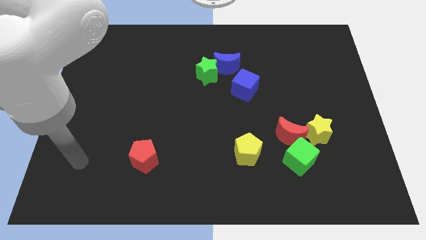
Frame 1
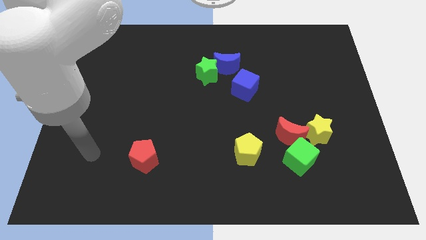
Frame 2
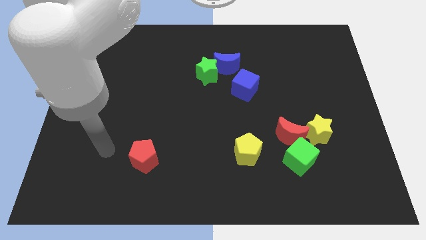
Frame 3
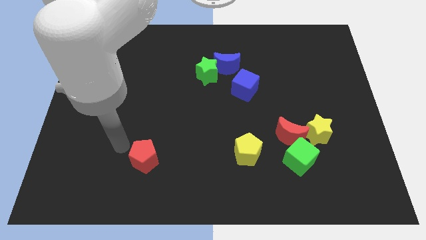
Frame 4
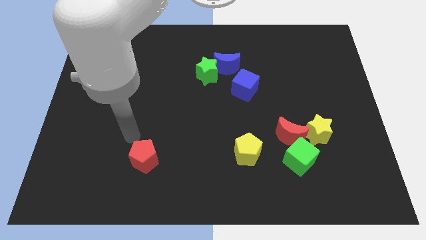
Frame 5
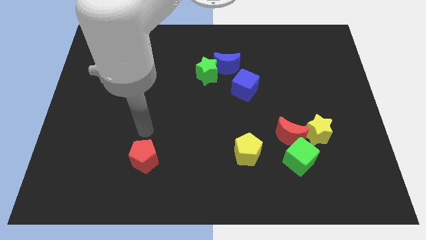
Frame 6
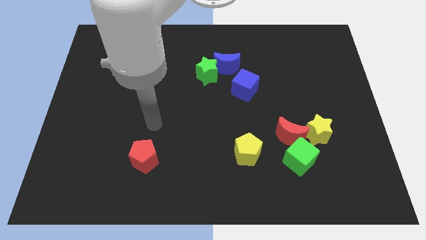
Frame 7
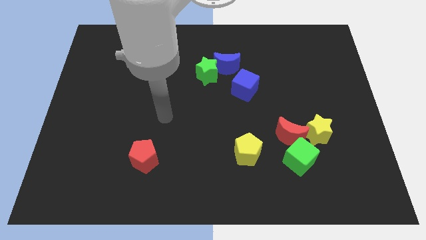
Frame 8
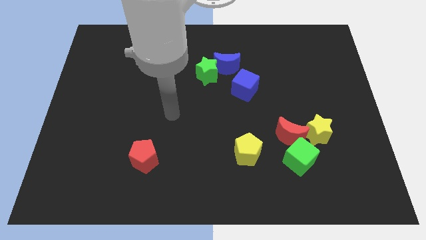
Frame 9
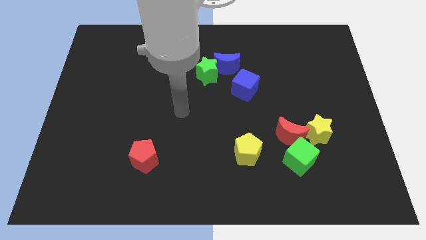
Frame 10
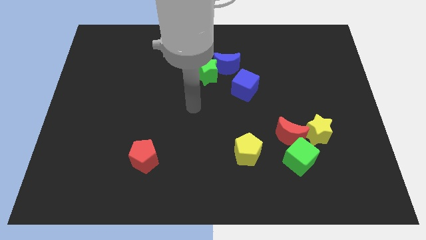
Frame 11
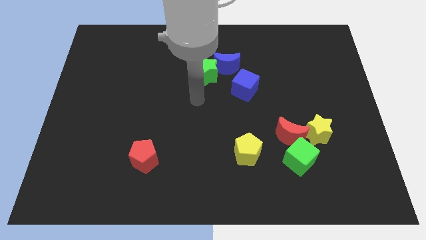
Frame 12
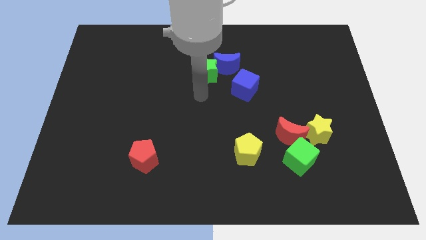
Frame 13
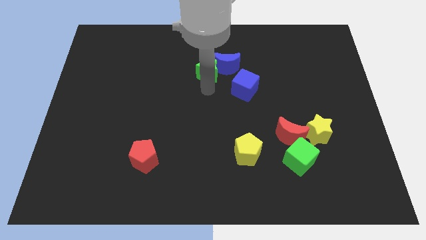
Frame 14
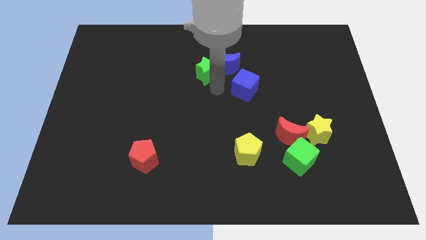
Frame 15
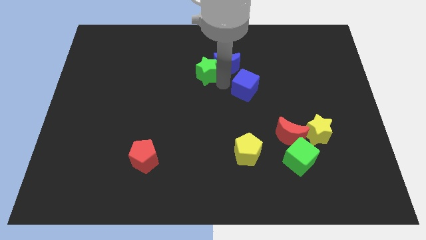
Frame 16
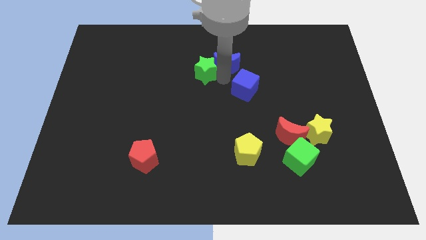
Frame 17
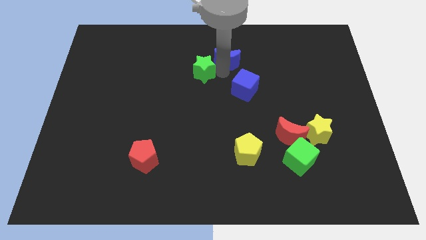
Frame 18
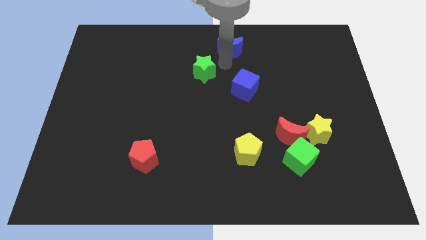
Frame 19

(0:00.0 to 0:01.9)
move the green star away from the blue moon

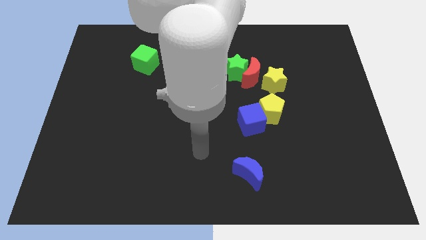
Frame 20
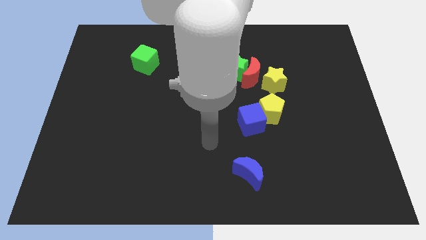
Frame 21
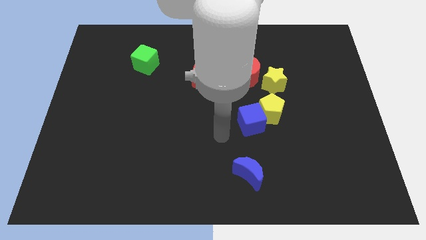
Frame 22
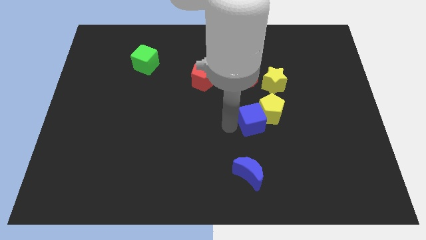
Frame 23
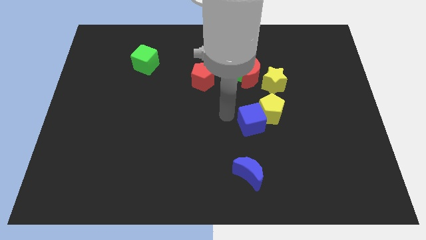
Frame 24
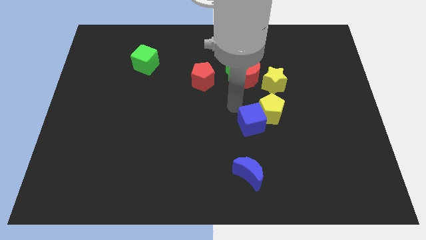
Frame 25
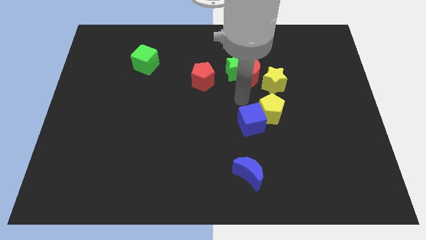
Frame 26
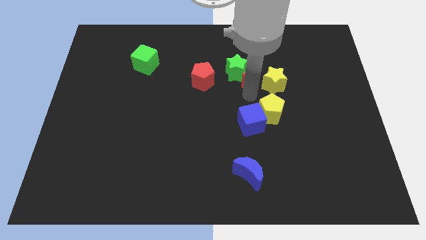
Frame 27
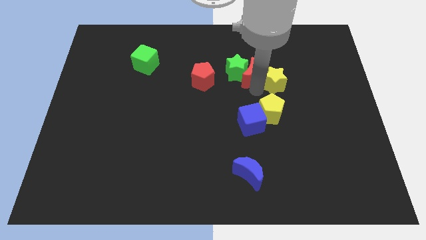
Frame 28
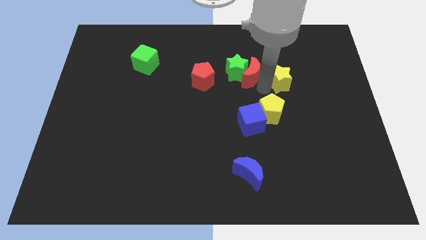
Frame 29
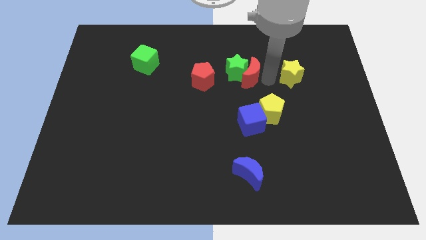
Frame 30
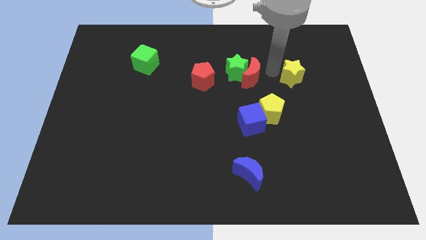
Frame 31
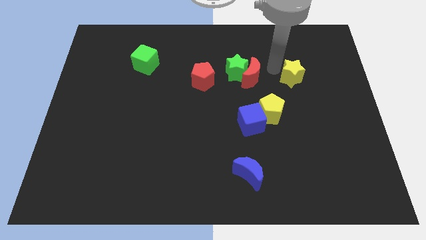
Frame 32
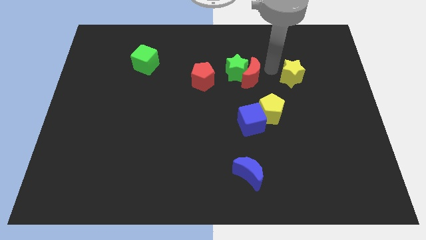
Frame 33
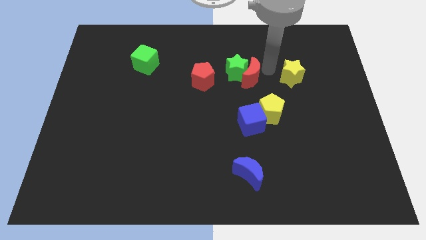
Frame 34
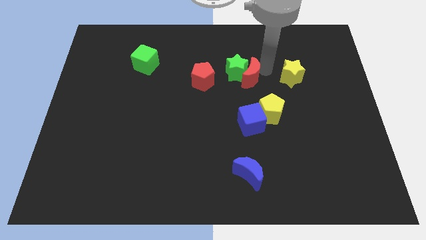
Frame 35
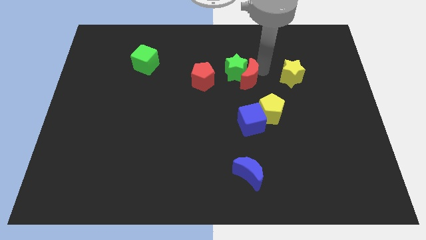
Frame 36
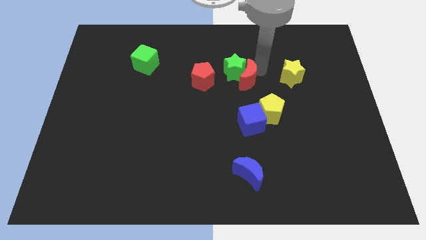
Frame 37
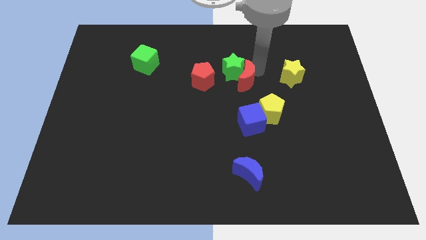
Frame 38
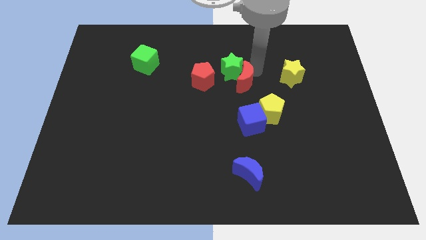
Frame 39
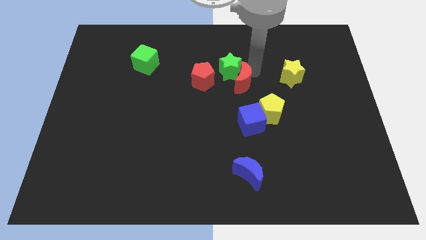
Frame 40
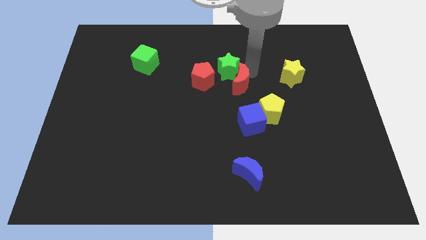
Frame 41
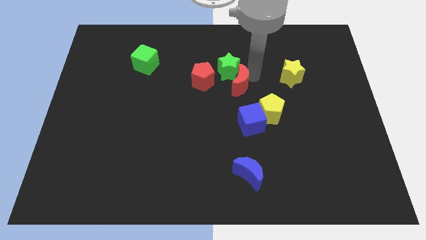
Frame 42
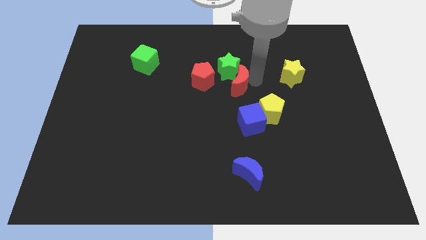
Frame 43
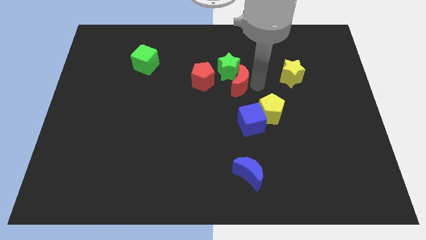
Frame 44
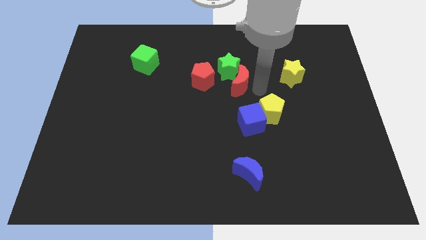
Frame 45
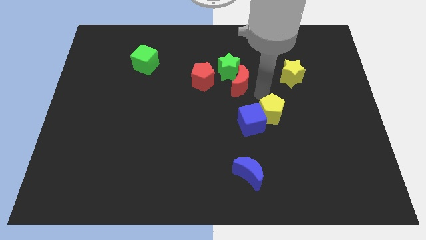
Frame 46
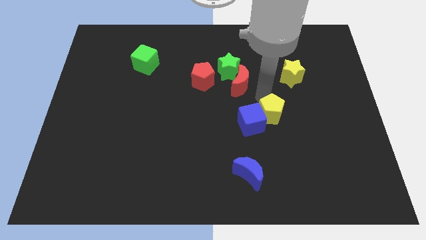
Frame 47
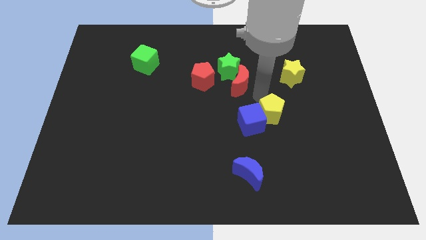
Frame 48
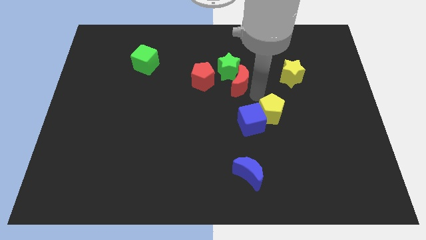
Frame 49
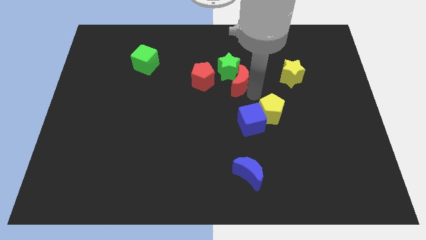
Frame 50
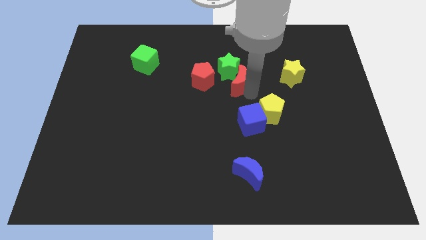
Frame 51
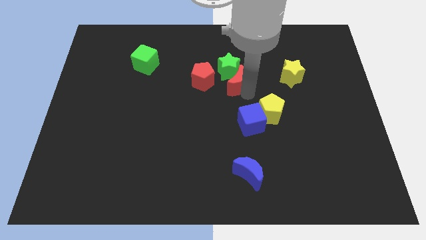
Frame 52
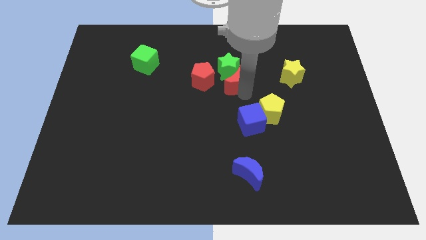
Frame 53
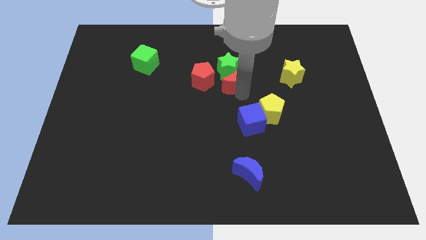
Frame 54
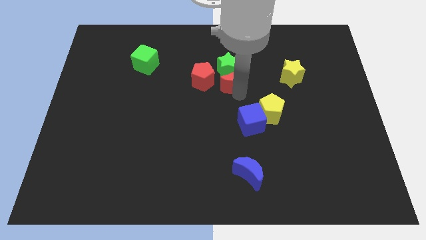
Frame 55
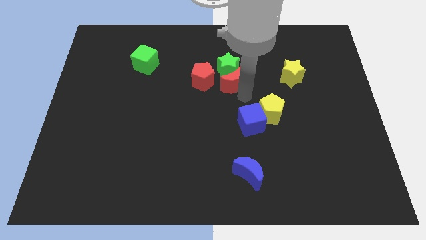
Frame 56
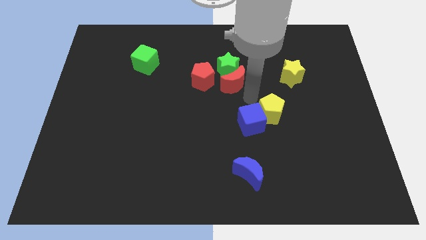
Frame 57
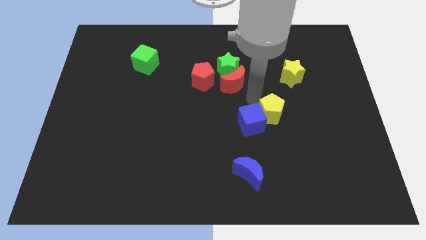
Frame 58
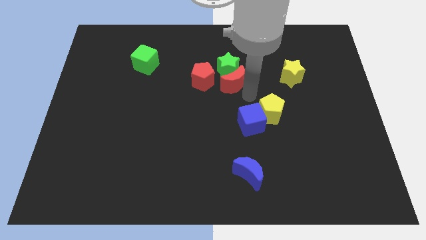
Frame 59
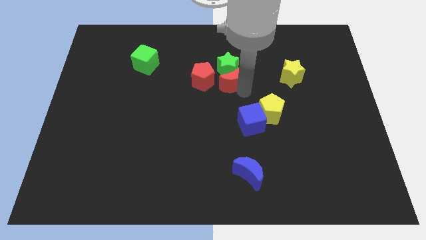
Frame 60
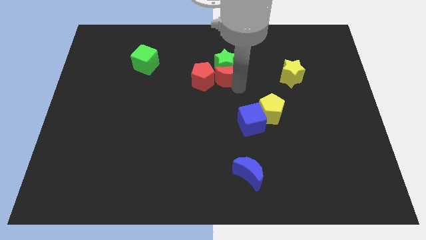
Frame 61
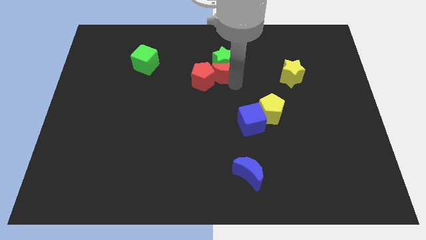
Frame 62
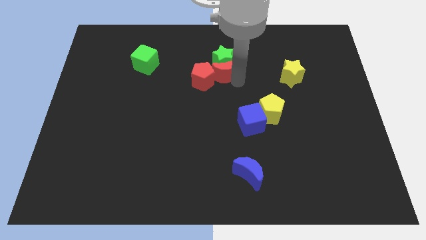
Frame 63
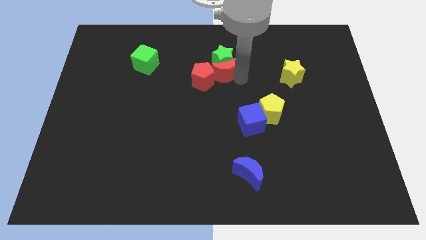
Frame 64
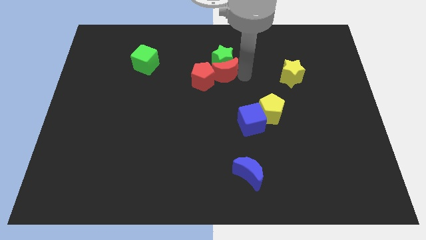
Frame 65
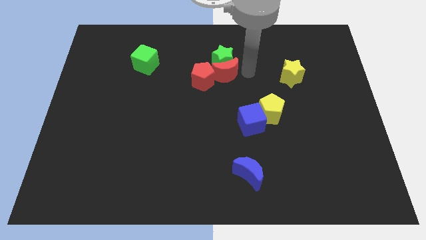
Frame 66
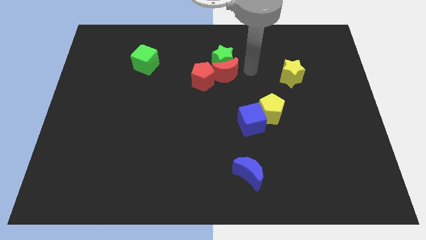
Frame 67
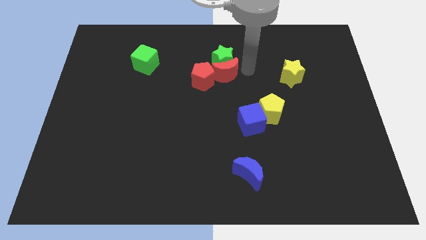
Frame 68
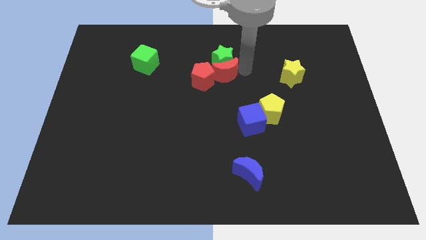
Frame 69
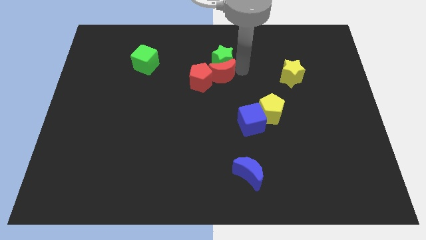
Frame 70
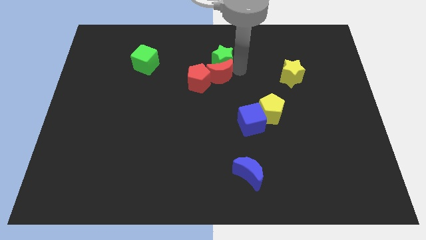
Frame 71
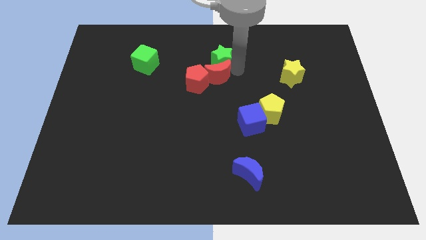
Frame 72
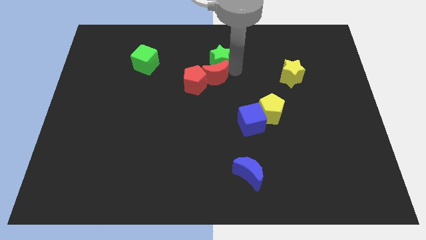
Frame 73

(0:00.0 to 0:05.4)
move the red moon away from the green star and yellow star

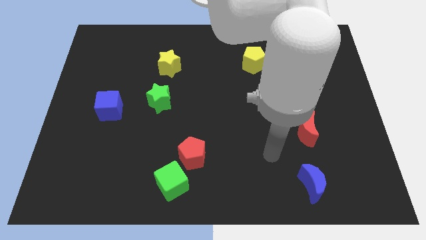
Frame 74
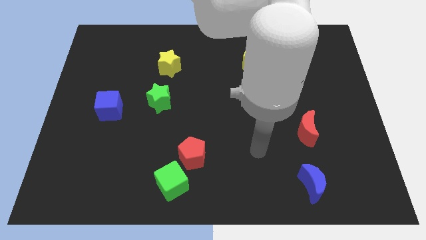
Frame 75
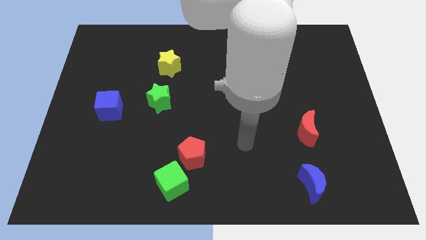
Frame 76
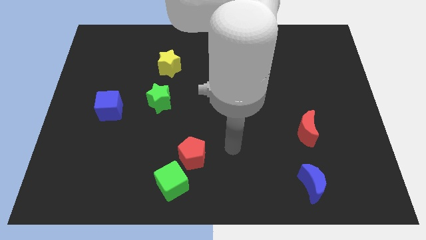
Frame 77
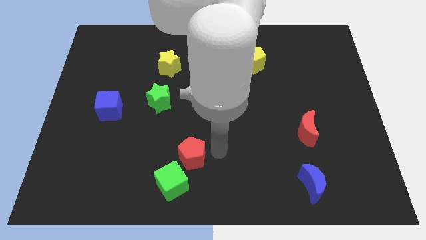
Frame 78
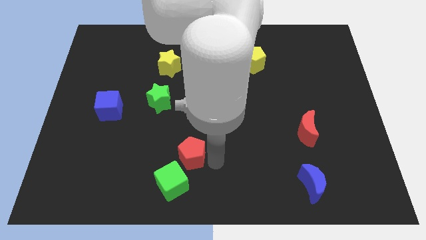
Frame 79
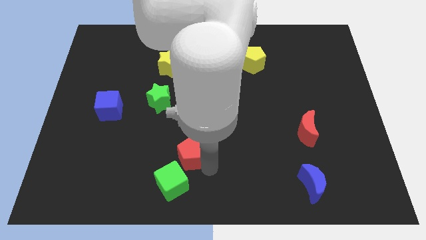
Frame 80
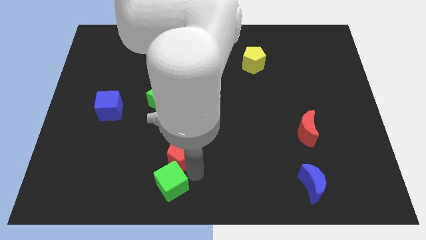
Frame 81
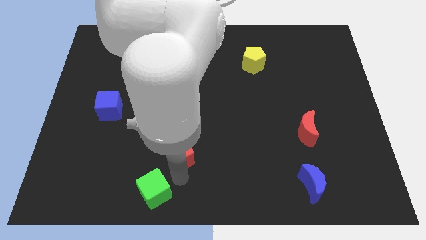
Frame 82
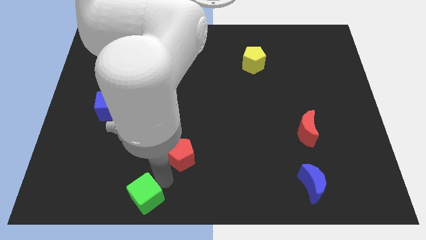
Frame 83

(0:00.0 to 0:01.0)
move the red pentagon away from the green cube

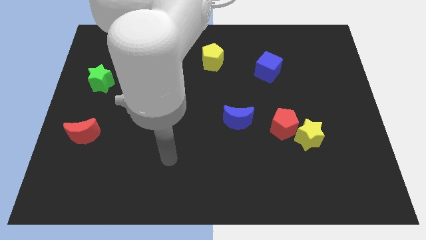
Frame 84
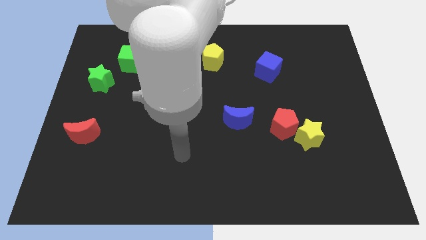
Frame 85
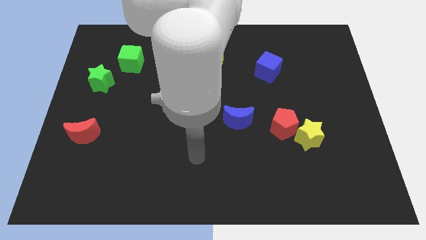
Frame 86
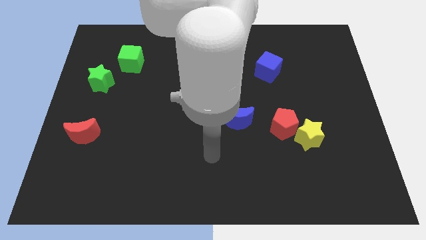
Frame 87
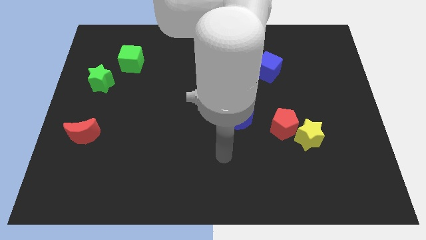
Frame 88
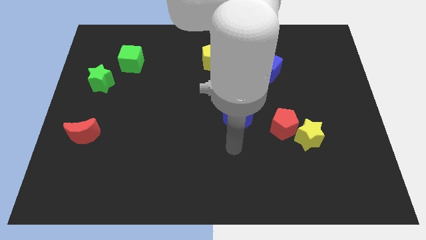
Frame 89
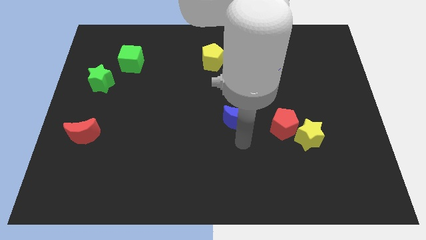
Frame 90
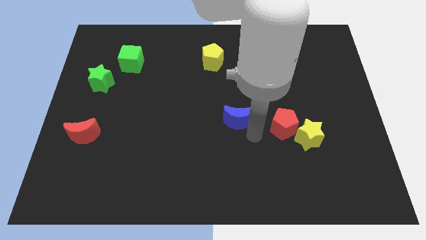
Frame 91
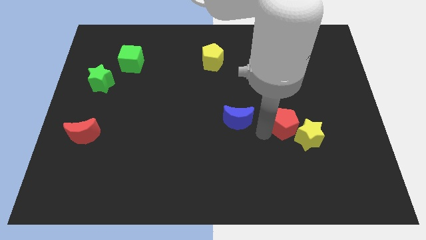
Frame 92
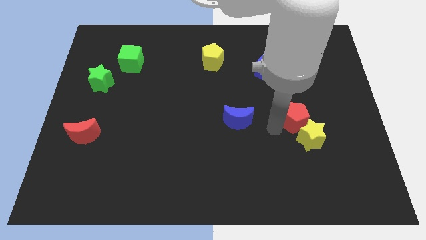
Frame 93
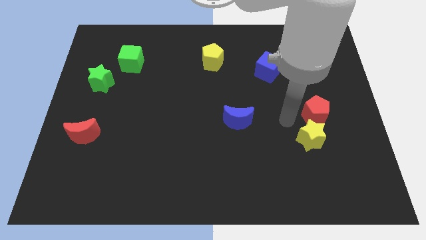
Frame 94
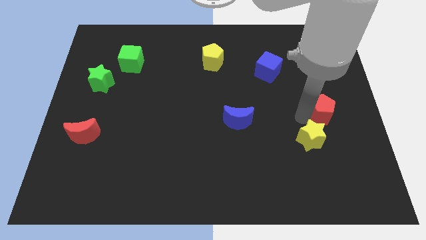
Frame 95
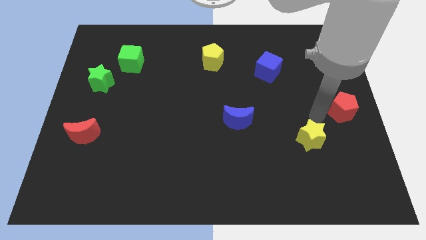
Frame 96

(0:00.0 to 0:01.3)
pull the yellow star apart from the red pentagon

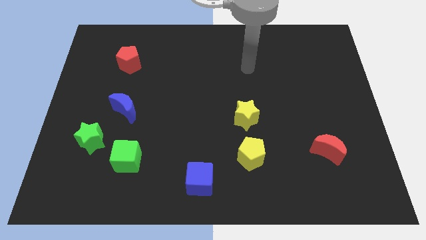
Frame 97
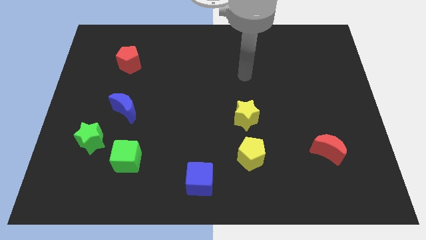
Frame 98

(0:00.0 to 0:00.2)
pull the green cube apart from the green star
